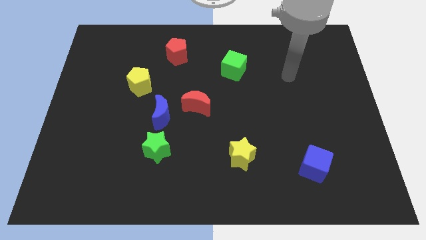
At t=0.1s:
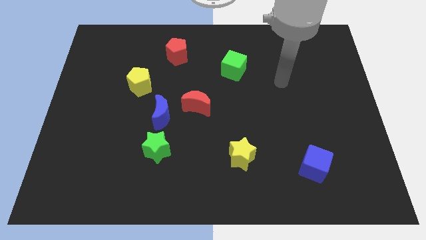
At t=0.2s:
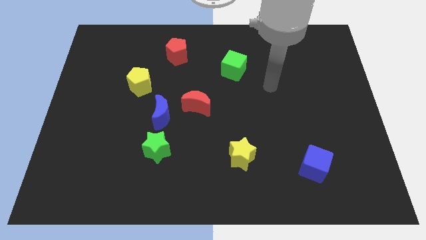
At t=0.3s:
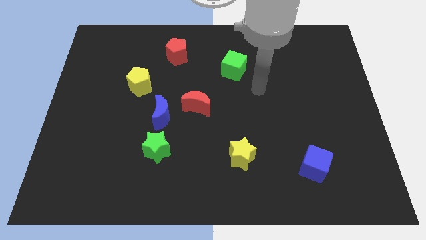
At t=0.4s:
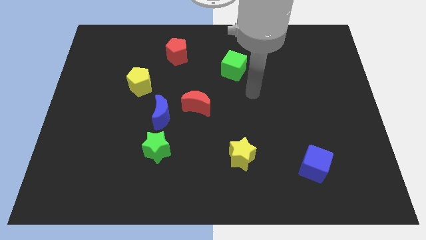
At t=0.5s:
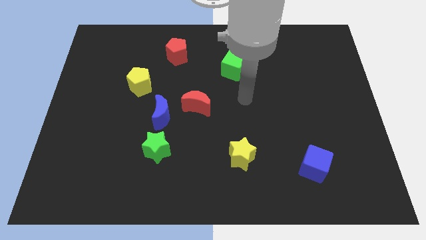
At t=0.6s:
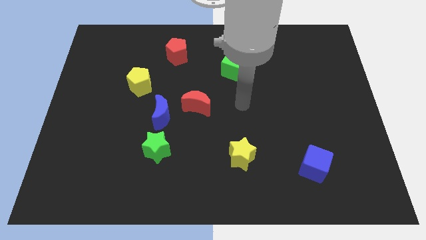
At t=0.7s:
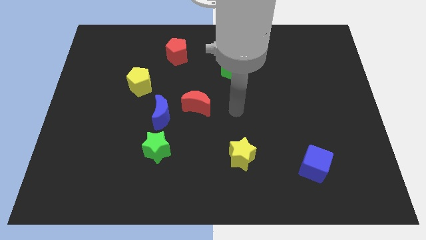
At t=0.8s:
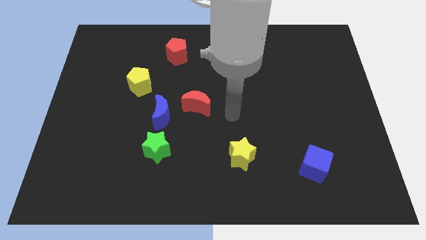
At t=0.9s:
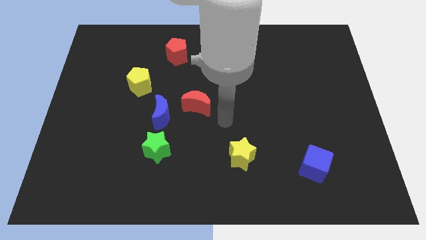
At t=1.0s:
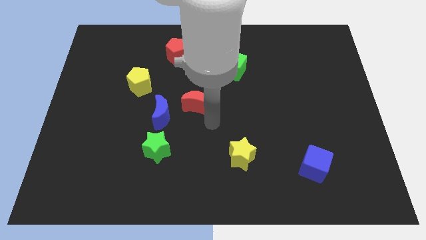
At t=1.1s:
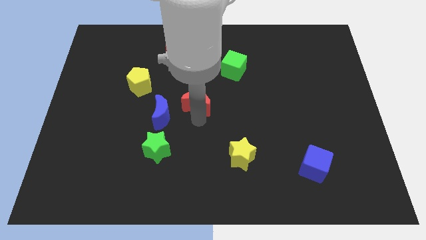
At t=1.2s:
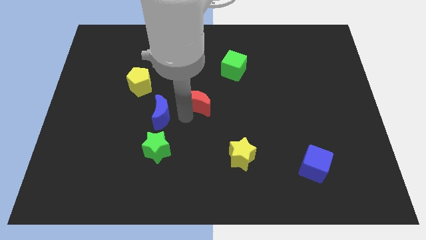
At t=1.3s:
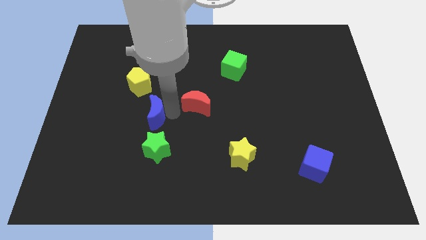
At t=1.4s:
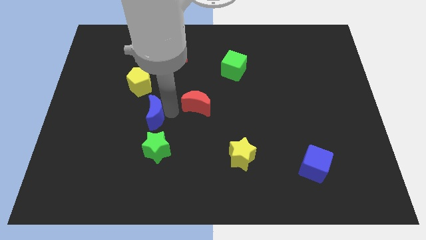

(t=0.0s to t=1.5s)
move the red moon away from the blue moon

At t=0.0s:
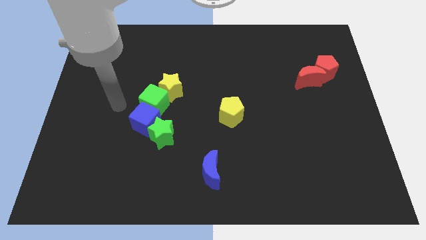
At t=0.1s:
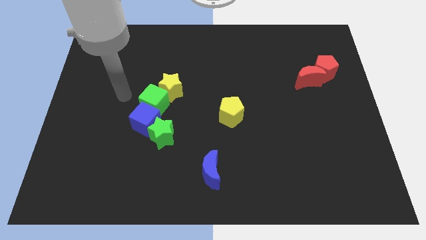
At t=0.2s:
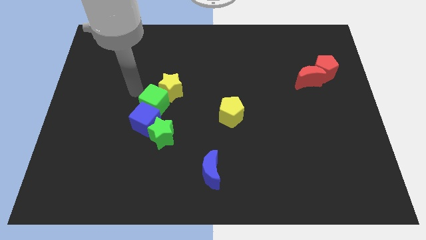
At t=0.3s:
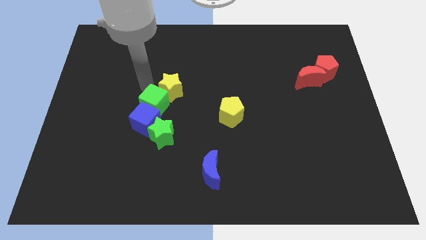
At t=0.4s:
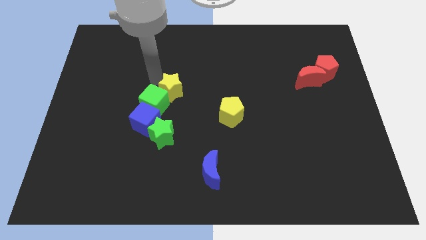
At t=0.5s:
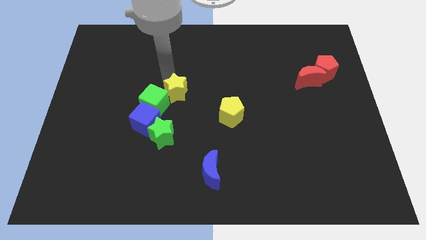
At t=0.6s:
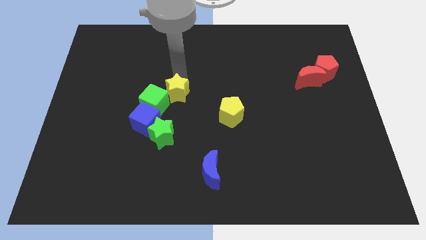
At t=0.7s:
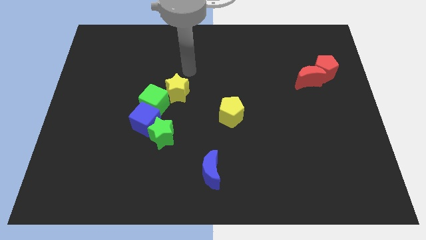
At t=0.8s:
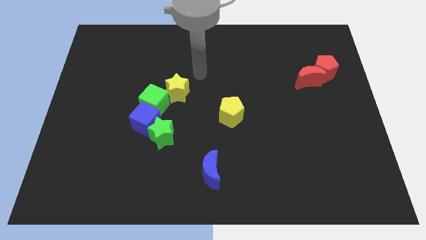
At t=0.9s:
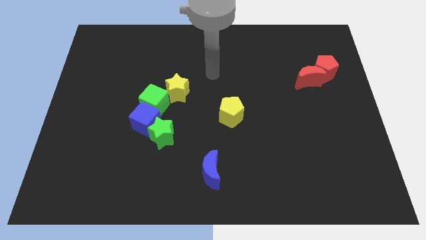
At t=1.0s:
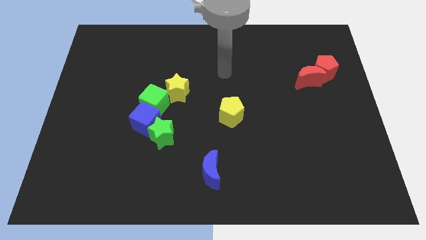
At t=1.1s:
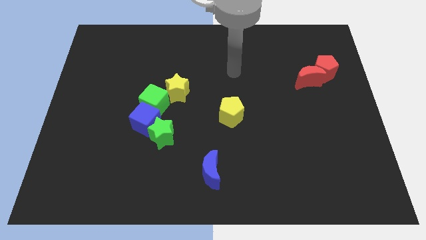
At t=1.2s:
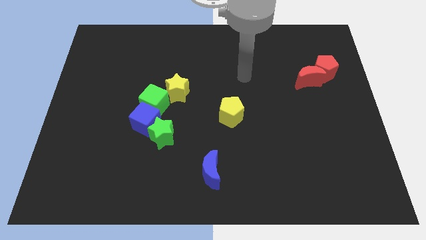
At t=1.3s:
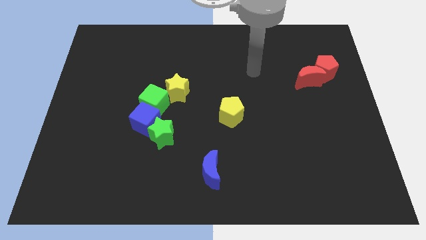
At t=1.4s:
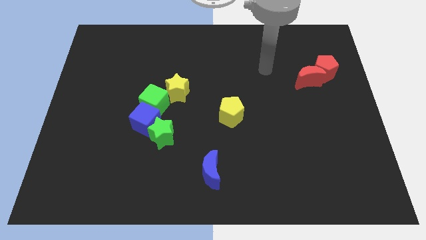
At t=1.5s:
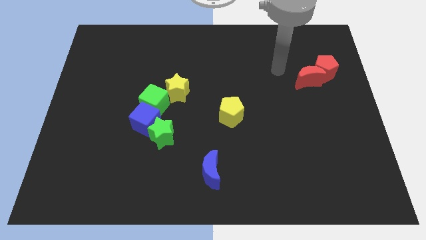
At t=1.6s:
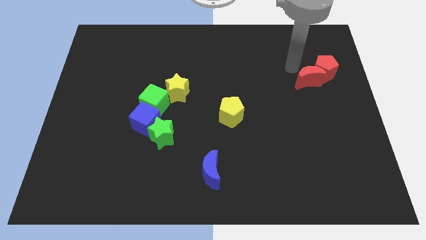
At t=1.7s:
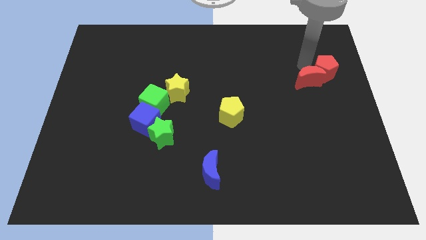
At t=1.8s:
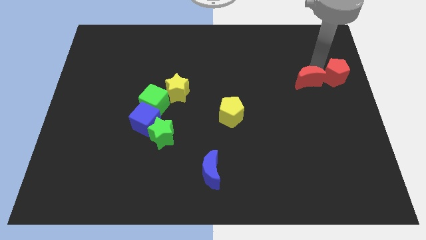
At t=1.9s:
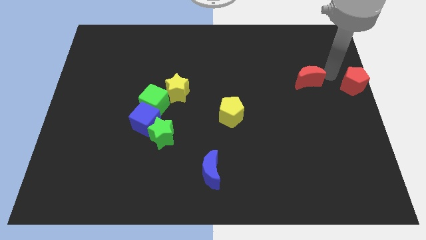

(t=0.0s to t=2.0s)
move the red moon away from the red pentagon

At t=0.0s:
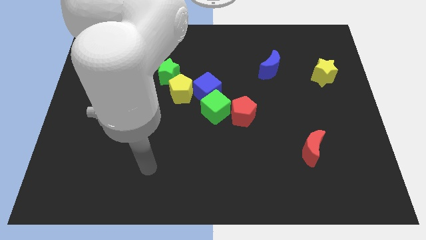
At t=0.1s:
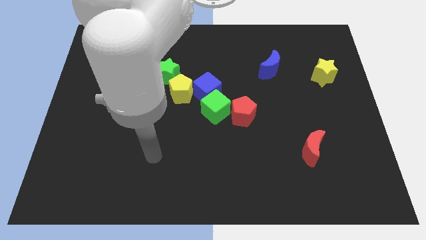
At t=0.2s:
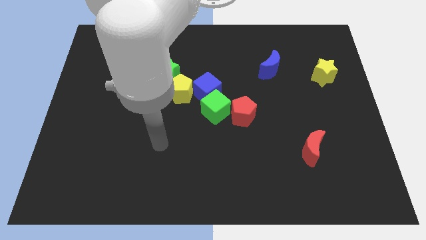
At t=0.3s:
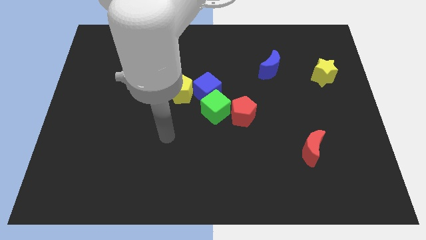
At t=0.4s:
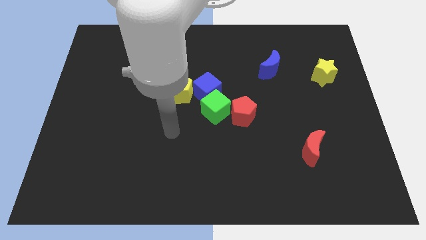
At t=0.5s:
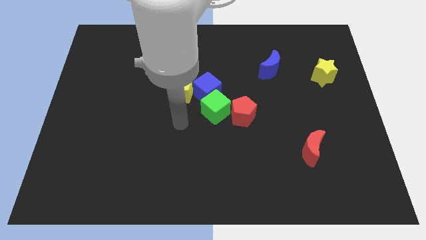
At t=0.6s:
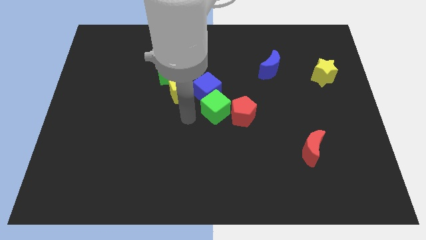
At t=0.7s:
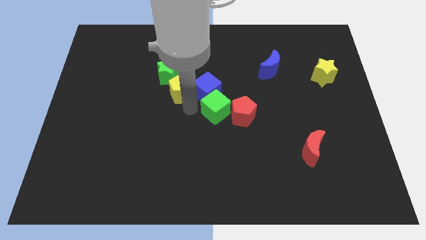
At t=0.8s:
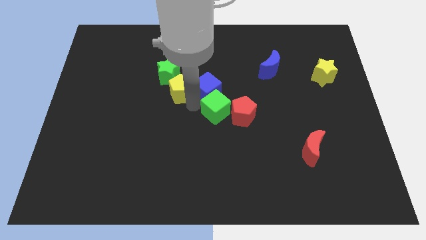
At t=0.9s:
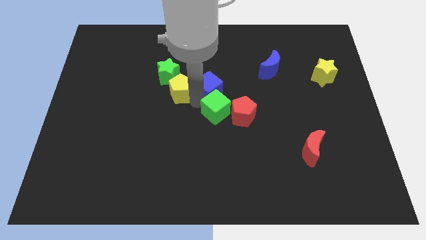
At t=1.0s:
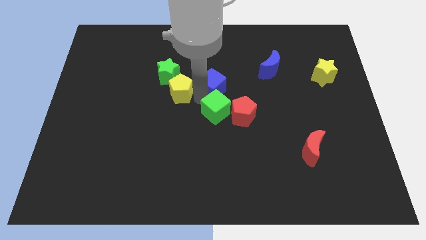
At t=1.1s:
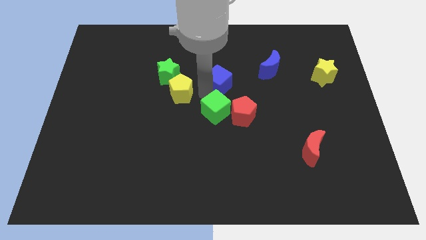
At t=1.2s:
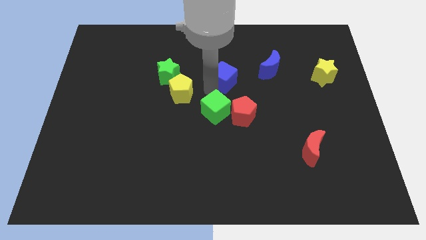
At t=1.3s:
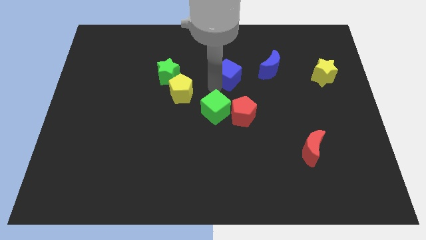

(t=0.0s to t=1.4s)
separate the blue cube from the green cube and yellow pentagon

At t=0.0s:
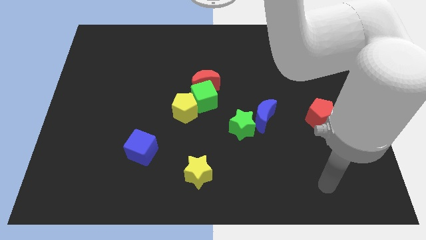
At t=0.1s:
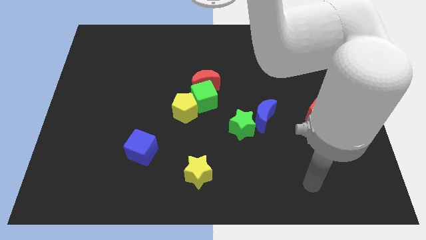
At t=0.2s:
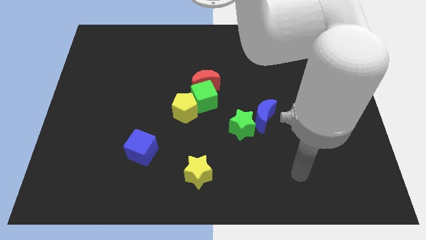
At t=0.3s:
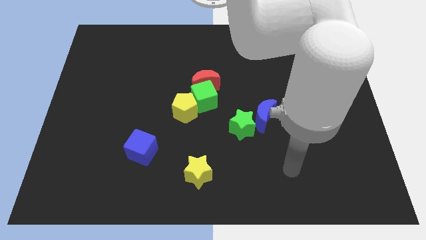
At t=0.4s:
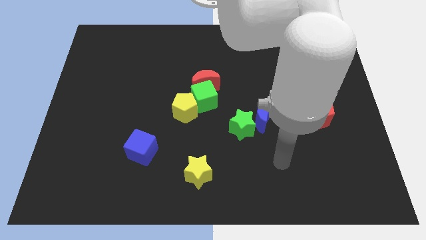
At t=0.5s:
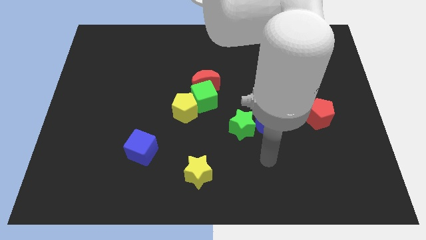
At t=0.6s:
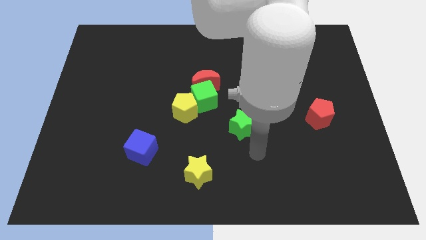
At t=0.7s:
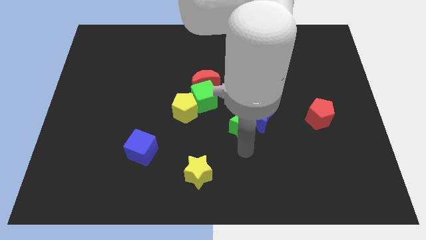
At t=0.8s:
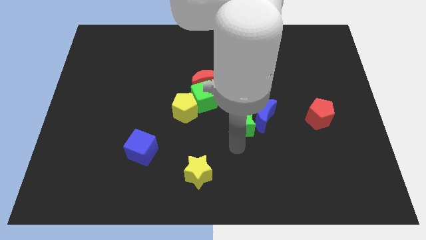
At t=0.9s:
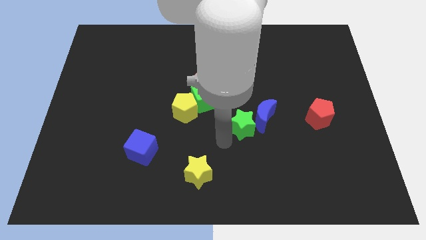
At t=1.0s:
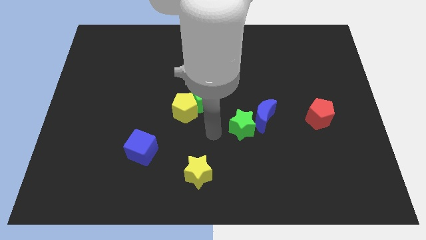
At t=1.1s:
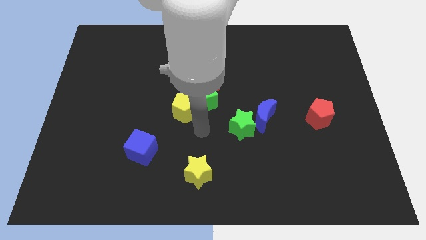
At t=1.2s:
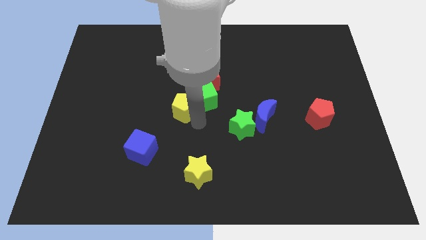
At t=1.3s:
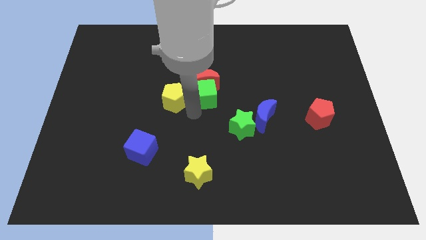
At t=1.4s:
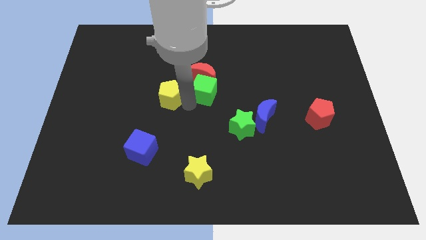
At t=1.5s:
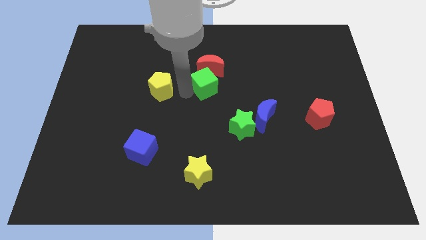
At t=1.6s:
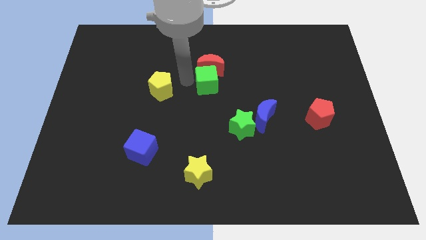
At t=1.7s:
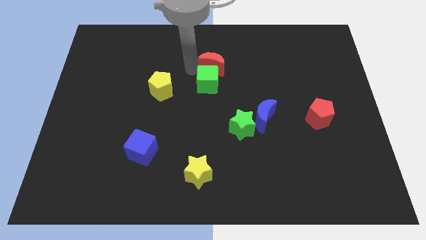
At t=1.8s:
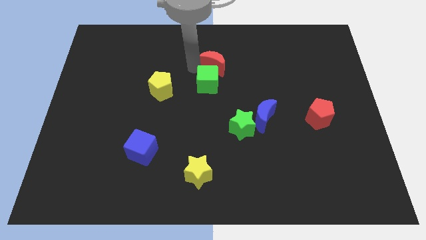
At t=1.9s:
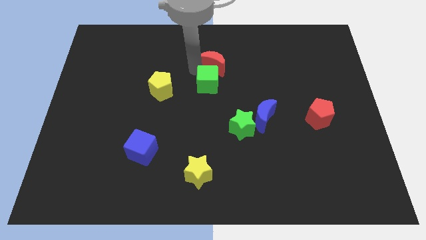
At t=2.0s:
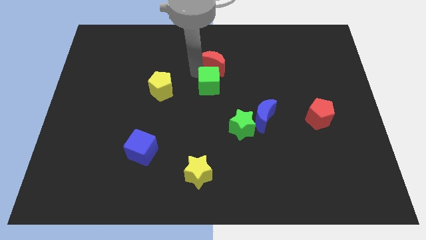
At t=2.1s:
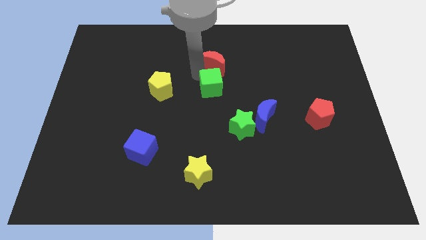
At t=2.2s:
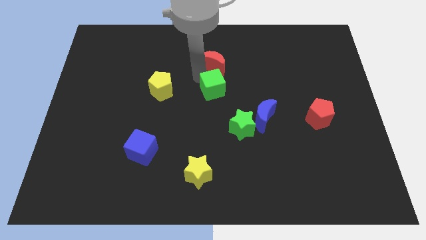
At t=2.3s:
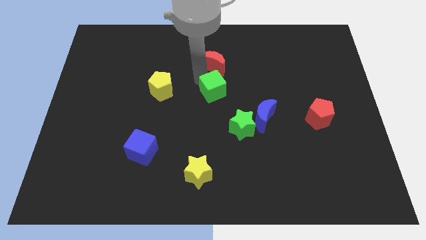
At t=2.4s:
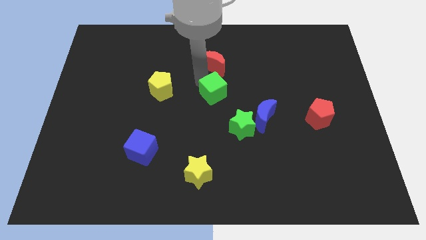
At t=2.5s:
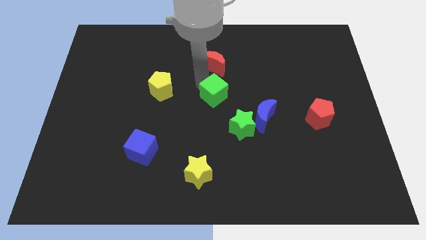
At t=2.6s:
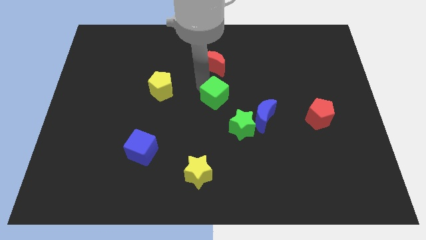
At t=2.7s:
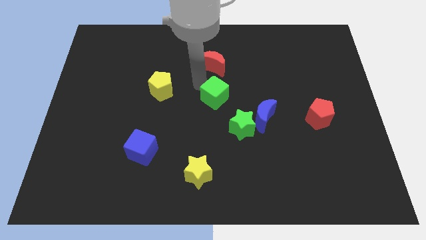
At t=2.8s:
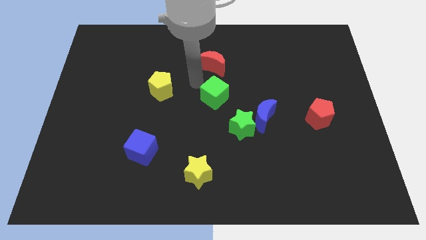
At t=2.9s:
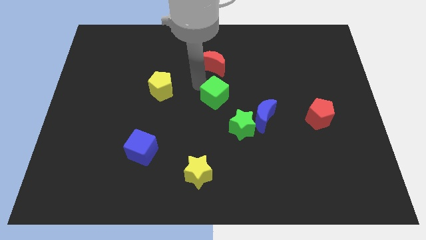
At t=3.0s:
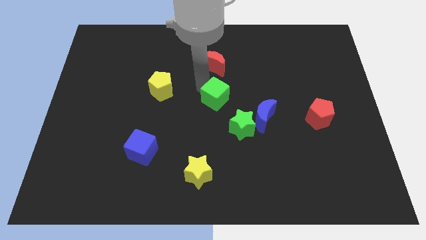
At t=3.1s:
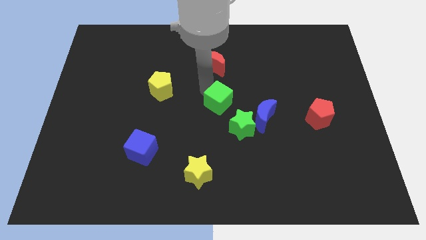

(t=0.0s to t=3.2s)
separate the green cube from the red moon and yellow pentagon

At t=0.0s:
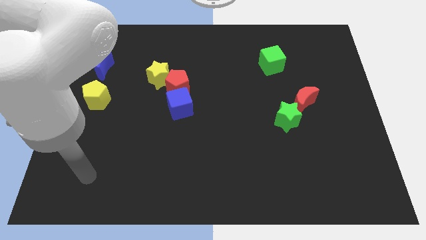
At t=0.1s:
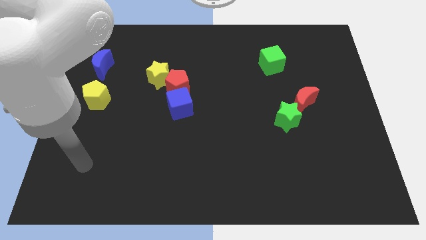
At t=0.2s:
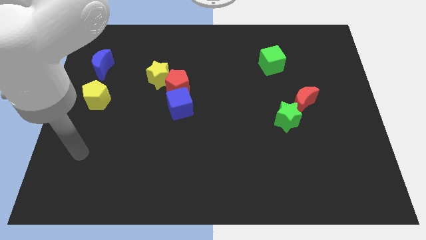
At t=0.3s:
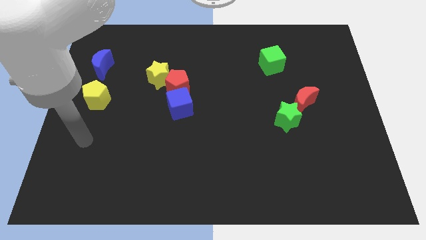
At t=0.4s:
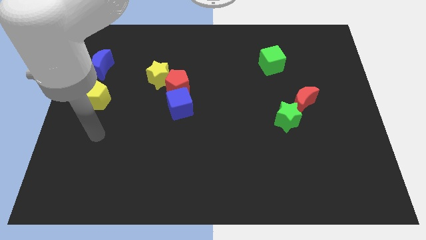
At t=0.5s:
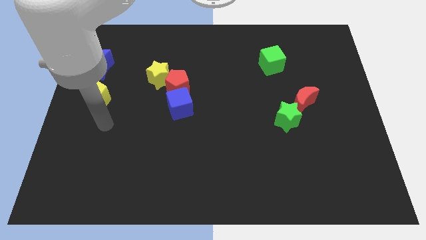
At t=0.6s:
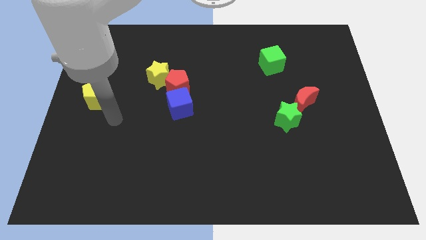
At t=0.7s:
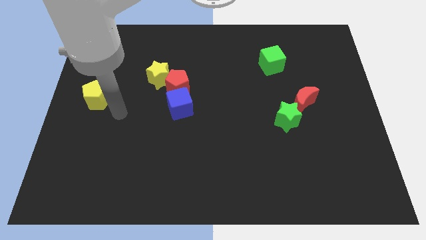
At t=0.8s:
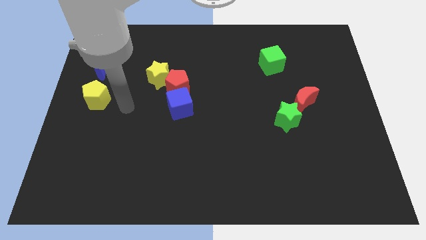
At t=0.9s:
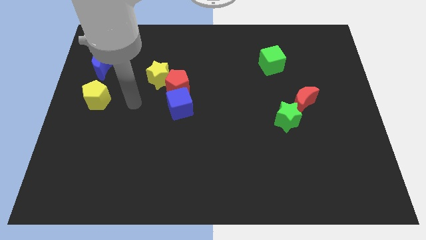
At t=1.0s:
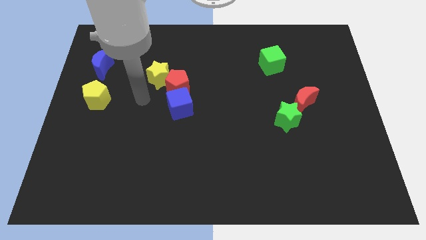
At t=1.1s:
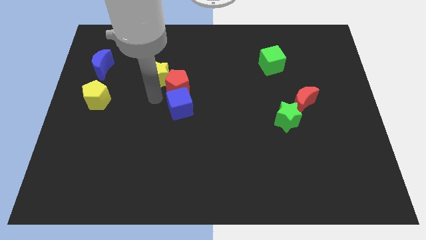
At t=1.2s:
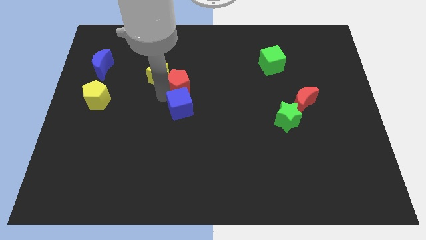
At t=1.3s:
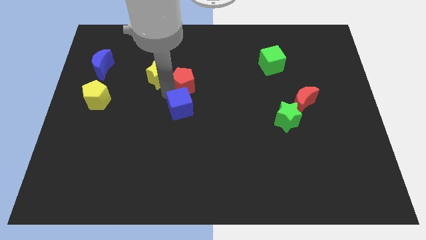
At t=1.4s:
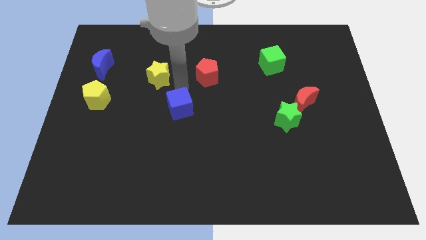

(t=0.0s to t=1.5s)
separate the yellow star from the red pentagon
